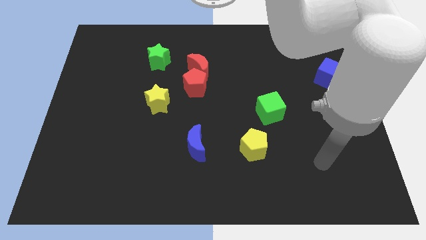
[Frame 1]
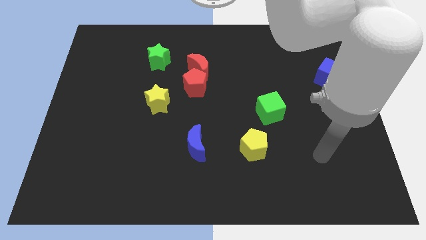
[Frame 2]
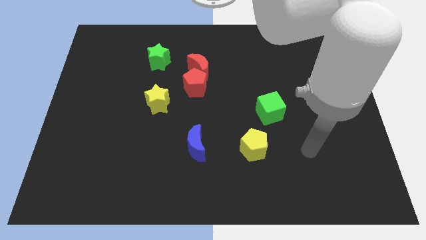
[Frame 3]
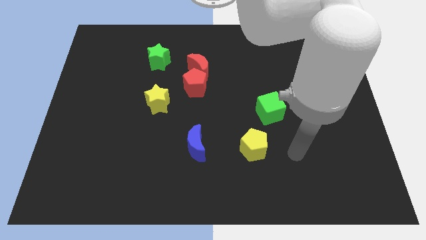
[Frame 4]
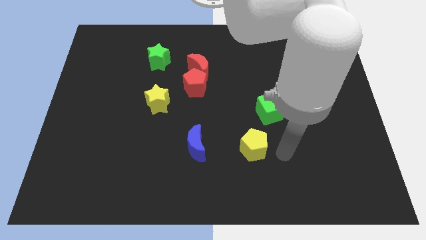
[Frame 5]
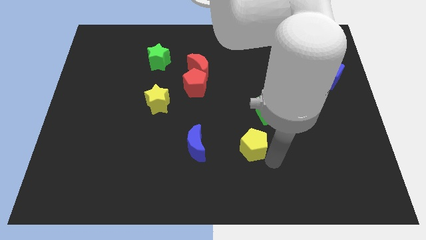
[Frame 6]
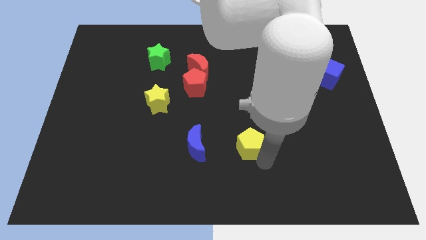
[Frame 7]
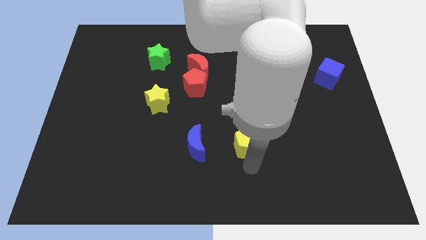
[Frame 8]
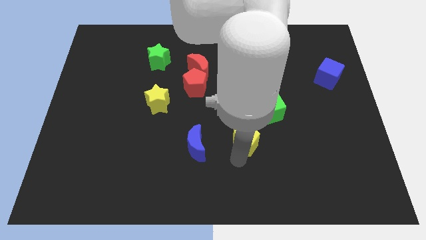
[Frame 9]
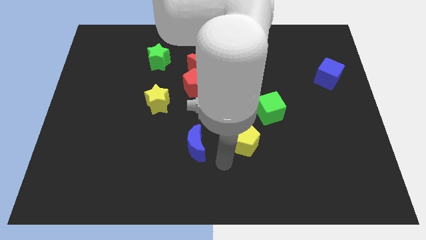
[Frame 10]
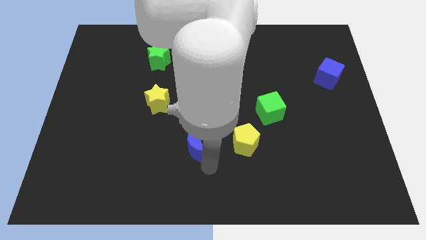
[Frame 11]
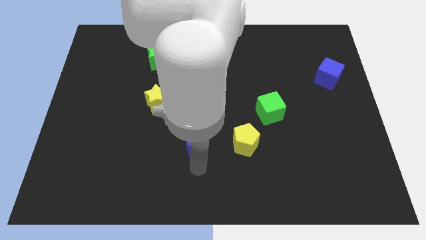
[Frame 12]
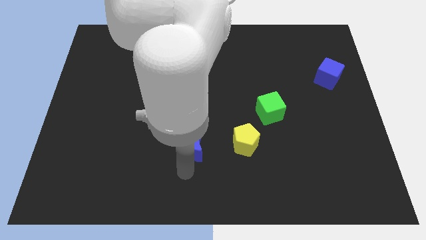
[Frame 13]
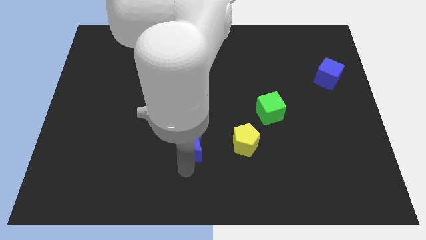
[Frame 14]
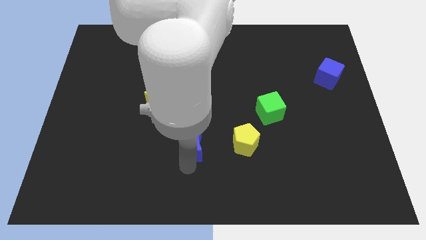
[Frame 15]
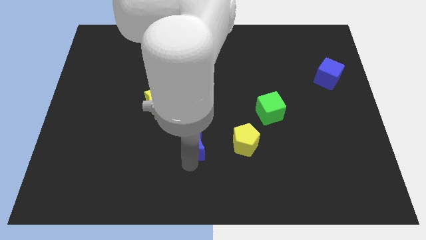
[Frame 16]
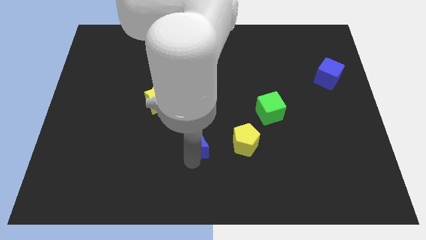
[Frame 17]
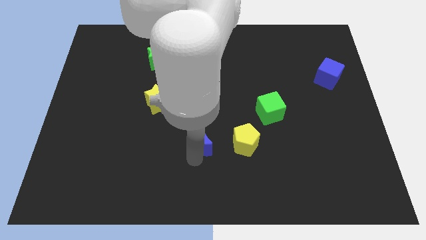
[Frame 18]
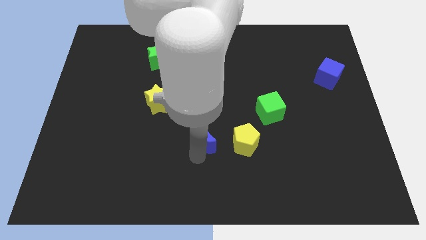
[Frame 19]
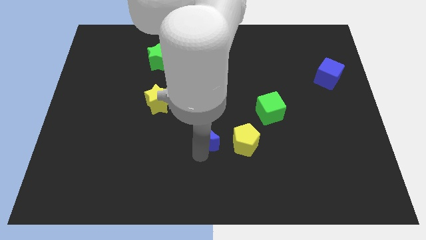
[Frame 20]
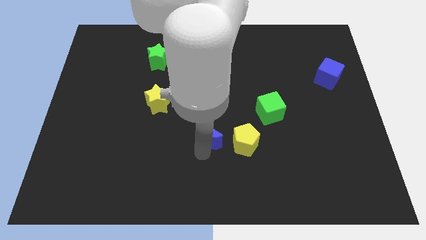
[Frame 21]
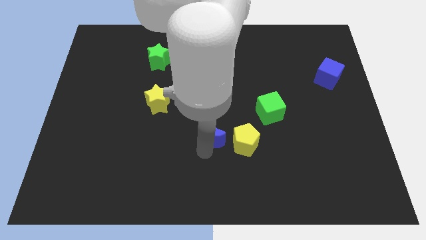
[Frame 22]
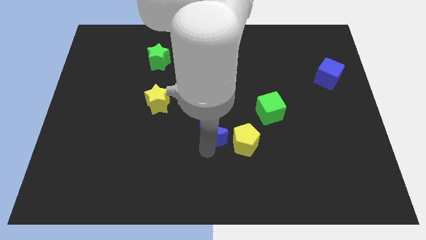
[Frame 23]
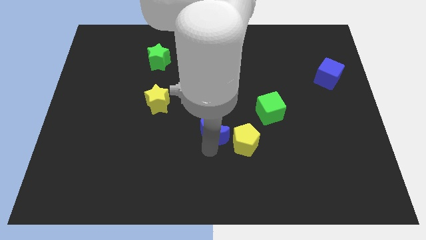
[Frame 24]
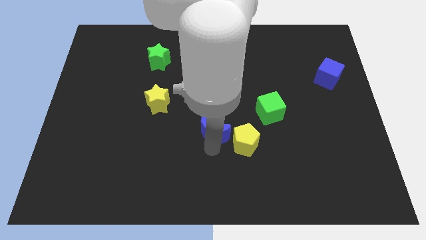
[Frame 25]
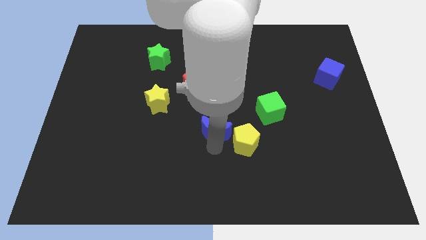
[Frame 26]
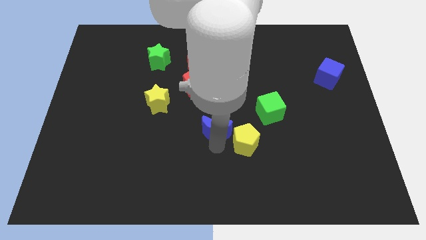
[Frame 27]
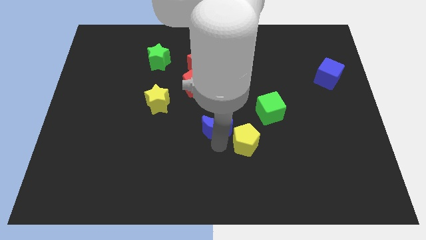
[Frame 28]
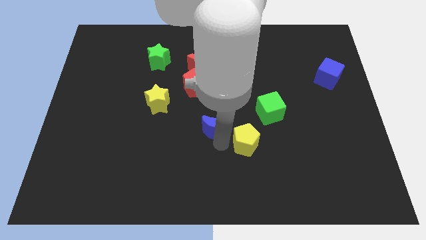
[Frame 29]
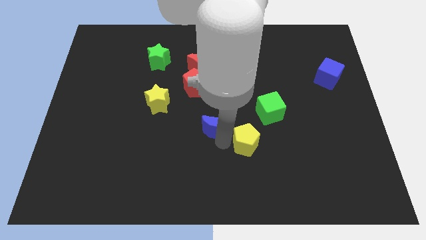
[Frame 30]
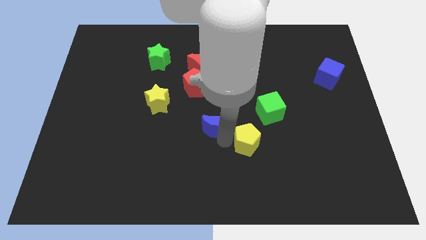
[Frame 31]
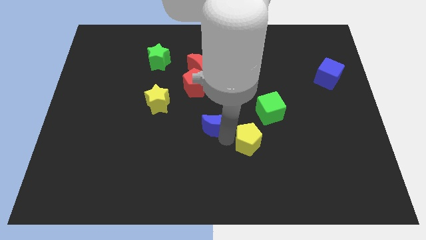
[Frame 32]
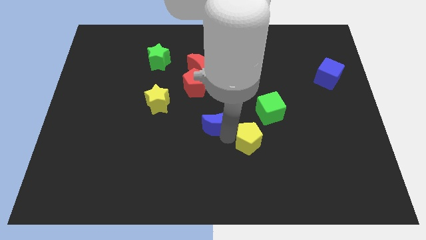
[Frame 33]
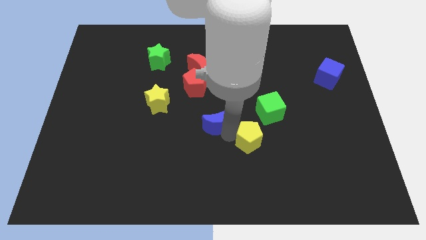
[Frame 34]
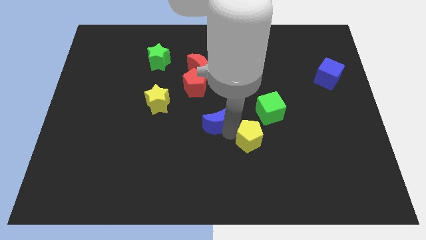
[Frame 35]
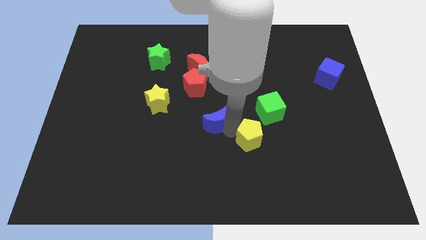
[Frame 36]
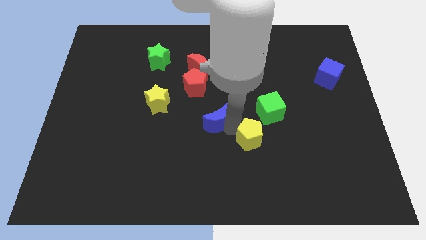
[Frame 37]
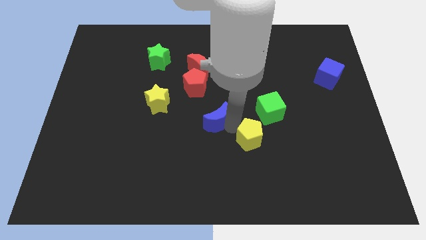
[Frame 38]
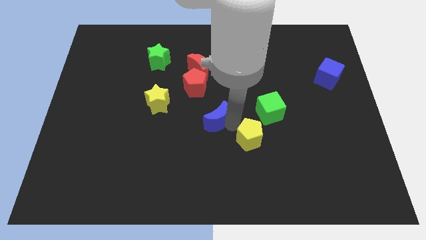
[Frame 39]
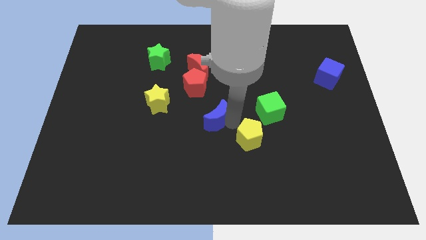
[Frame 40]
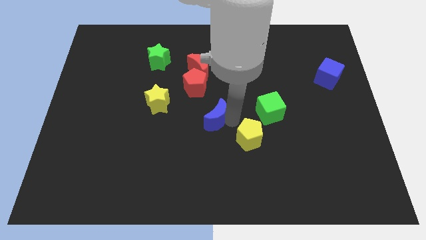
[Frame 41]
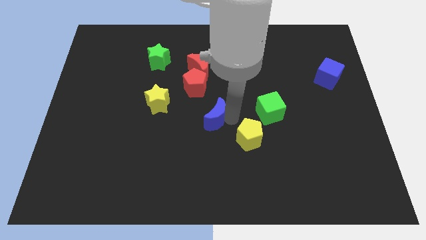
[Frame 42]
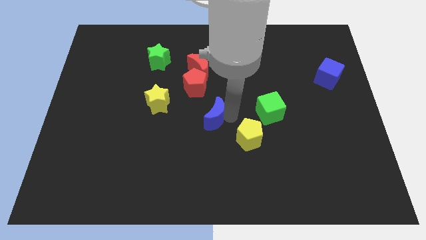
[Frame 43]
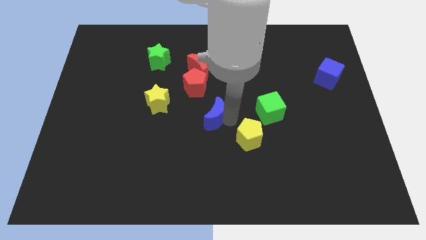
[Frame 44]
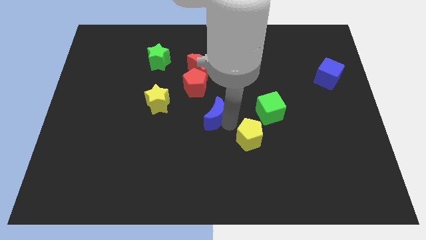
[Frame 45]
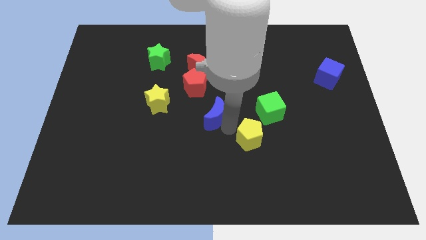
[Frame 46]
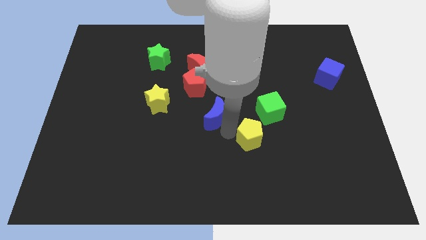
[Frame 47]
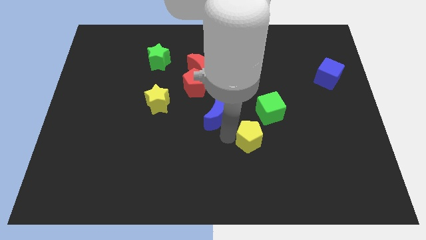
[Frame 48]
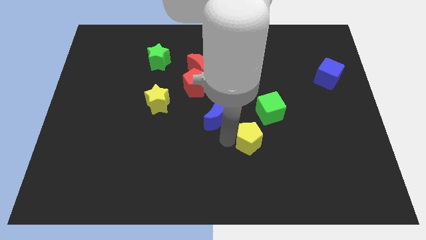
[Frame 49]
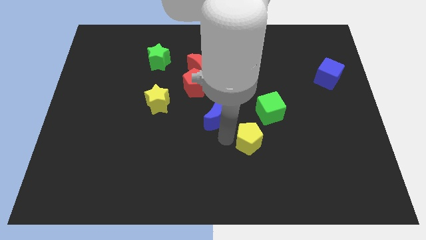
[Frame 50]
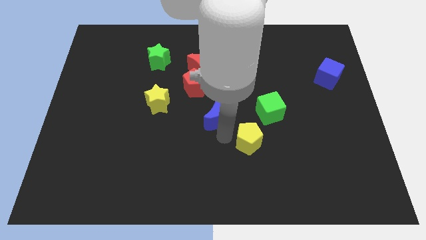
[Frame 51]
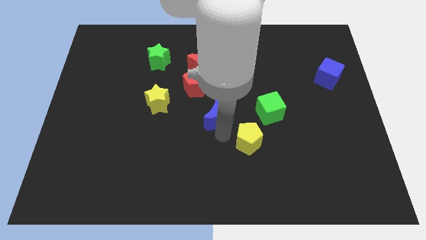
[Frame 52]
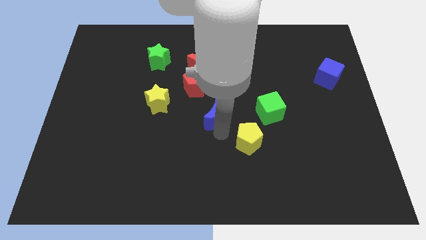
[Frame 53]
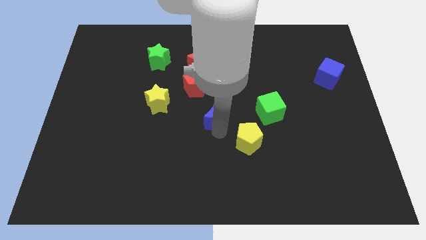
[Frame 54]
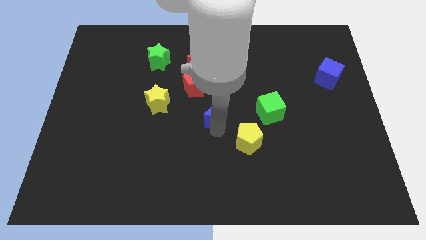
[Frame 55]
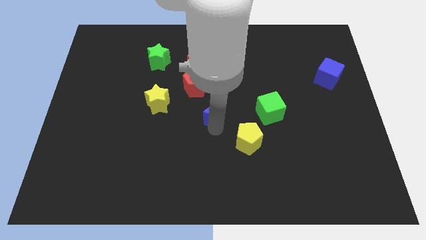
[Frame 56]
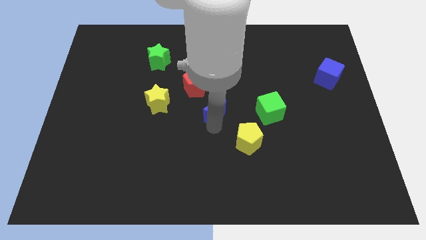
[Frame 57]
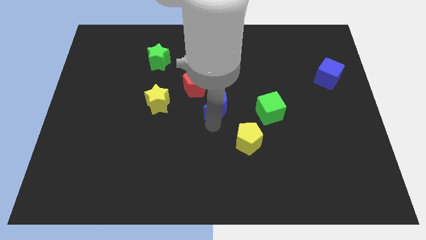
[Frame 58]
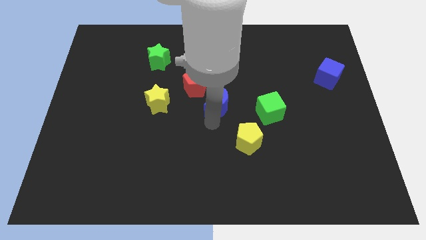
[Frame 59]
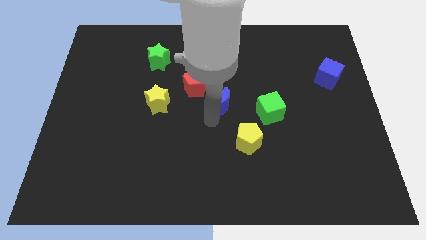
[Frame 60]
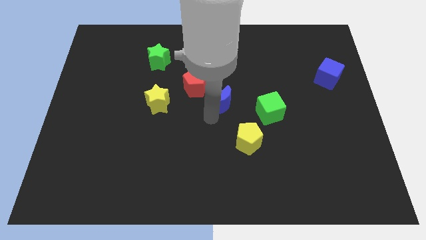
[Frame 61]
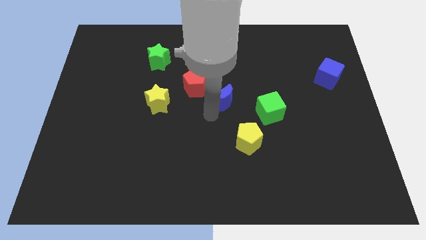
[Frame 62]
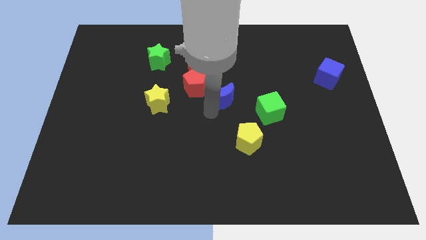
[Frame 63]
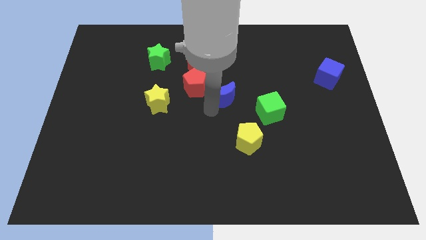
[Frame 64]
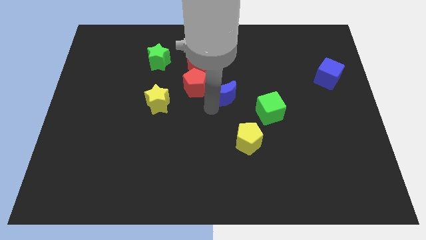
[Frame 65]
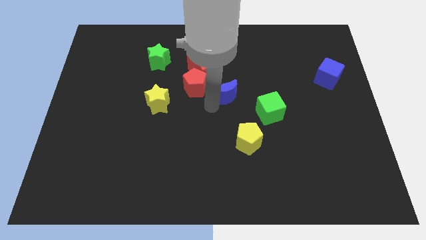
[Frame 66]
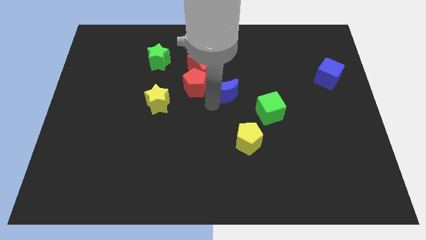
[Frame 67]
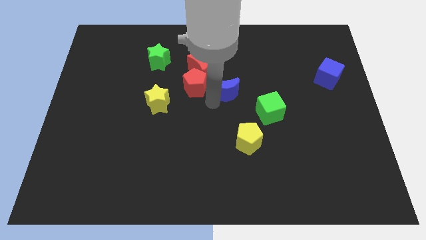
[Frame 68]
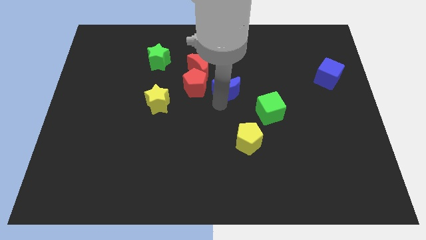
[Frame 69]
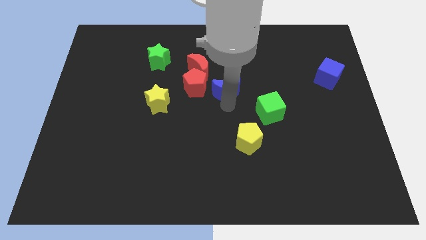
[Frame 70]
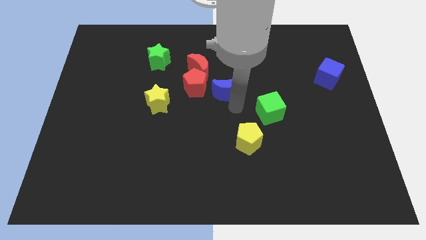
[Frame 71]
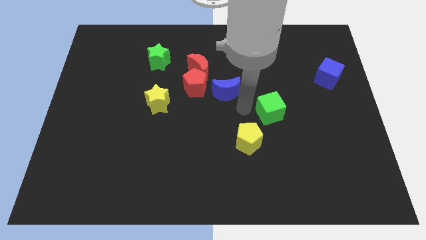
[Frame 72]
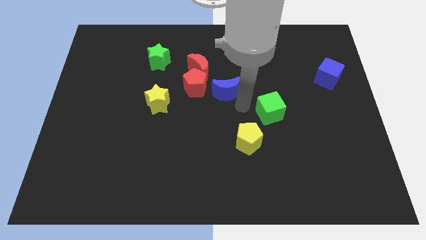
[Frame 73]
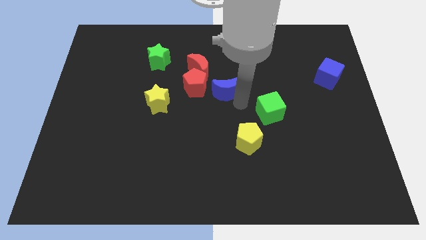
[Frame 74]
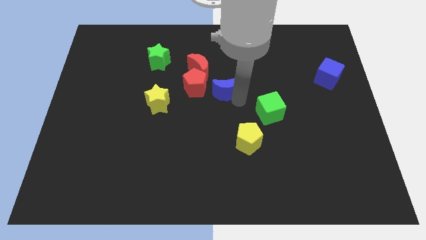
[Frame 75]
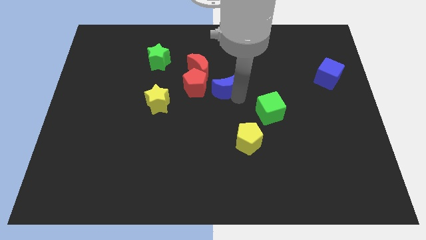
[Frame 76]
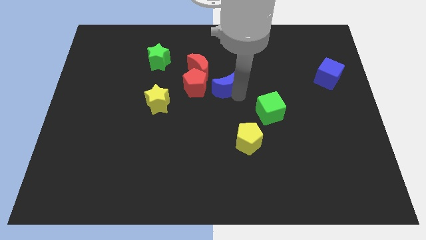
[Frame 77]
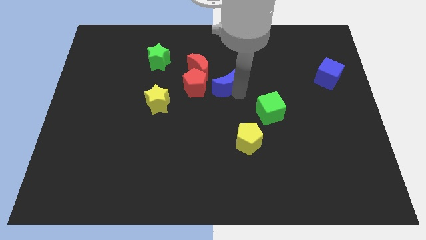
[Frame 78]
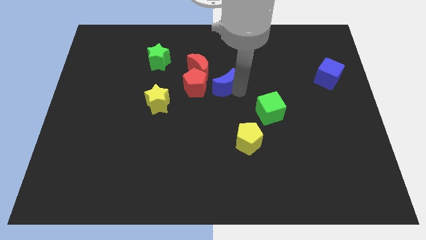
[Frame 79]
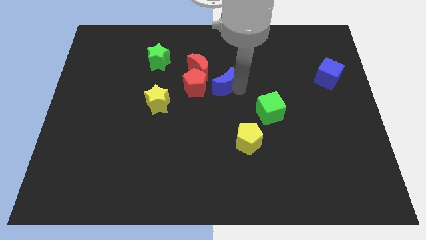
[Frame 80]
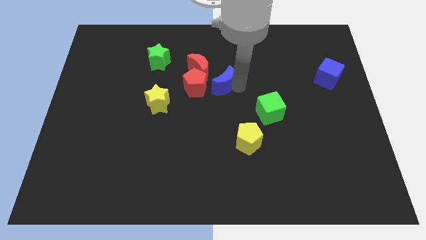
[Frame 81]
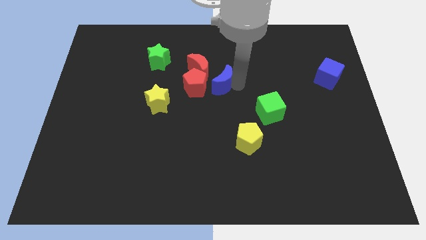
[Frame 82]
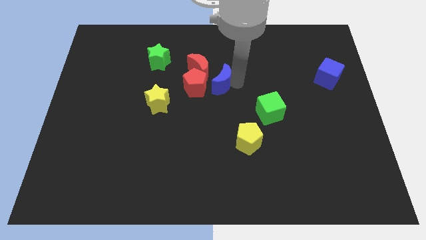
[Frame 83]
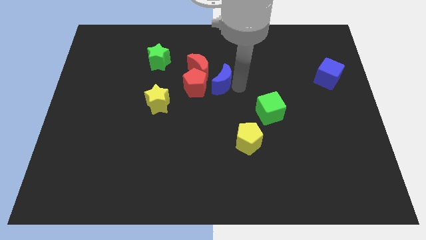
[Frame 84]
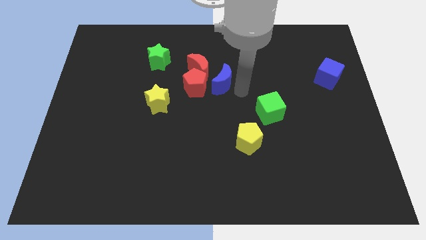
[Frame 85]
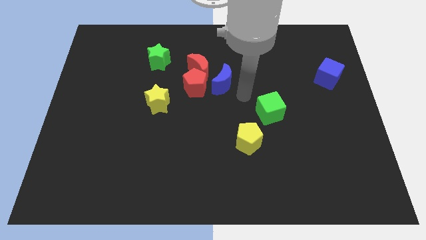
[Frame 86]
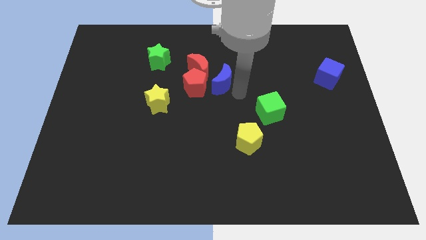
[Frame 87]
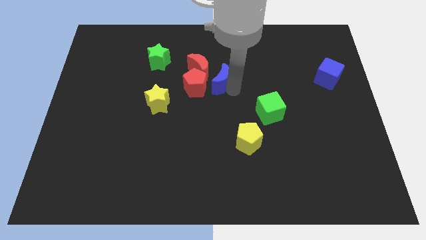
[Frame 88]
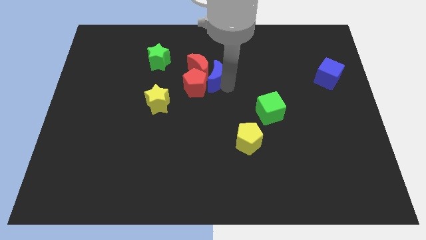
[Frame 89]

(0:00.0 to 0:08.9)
put the blue moon next to the red moon
